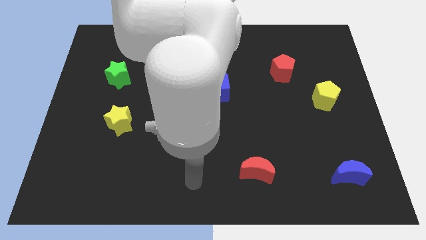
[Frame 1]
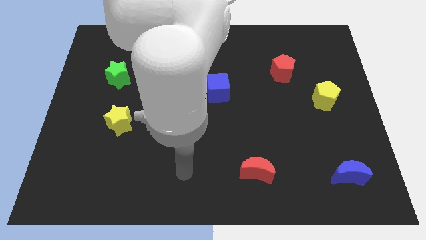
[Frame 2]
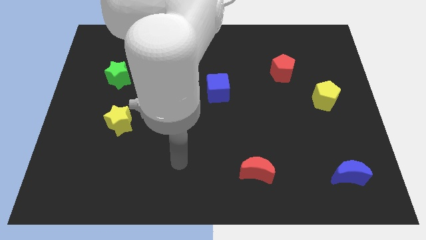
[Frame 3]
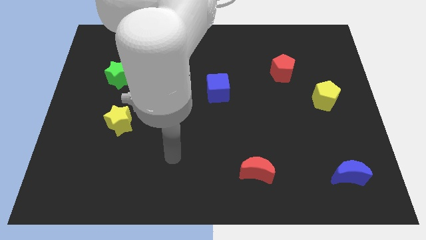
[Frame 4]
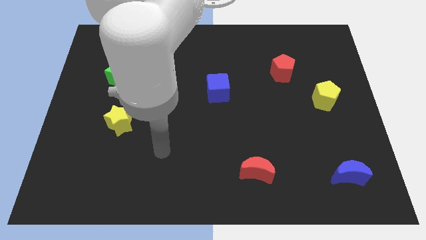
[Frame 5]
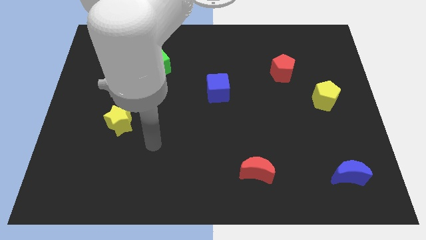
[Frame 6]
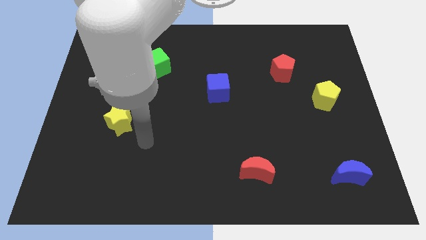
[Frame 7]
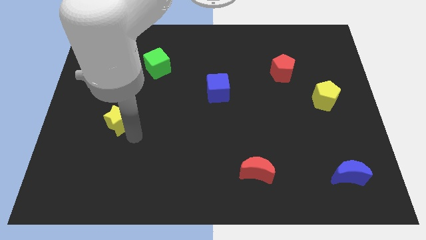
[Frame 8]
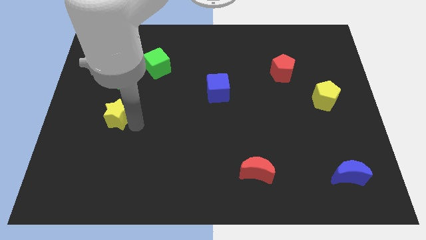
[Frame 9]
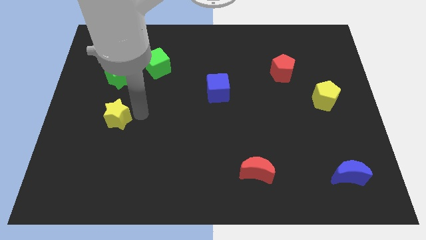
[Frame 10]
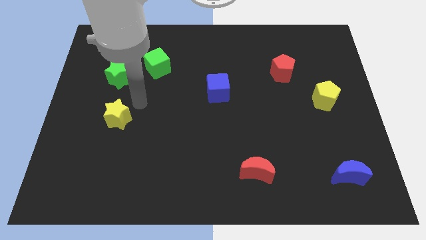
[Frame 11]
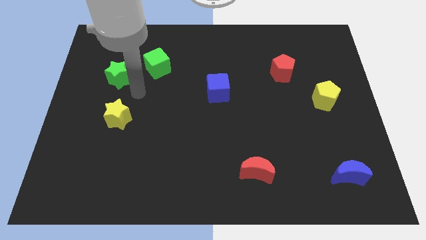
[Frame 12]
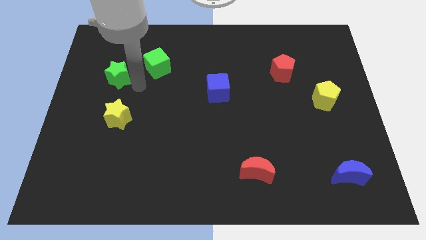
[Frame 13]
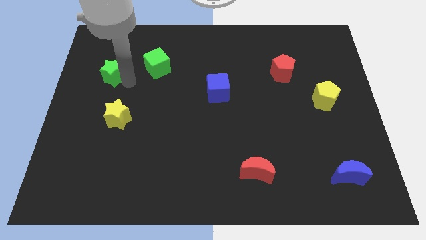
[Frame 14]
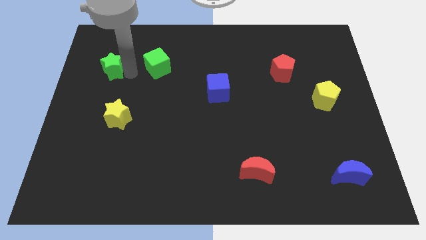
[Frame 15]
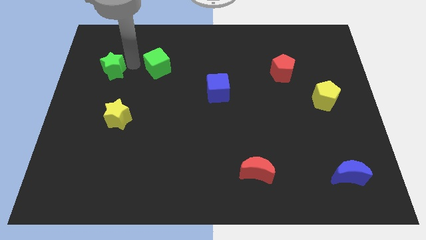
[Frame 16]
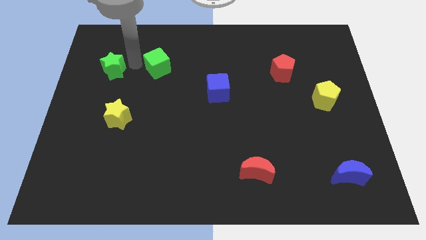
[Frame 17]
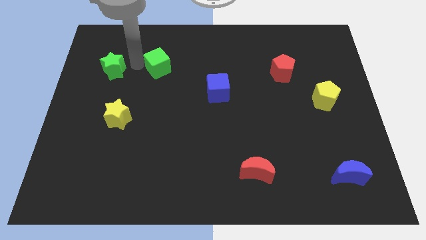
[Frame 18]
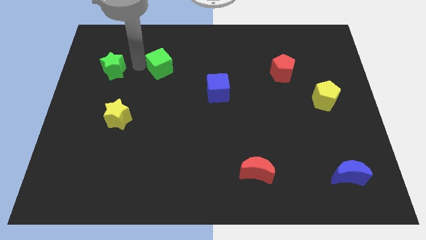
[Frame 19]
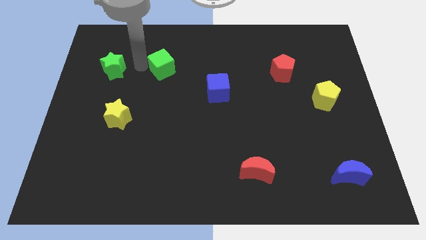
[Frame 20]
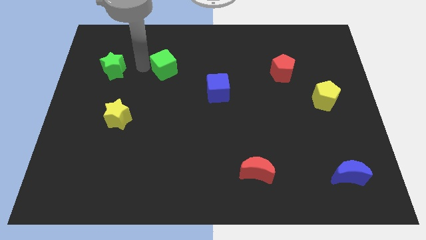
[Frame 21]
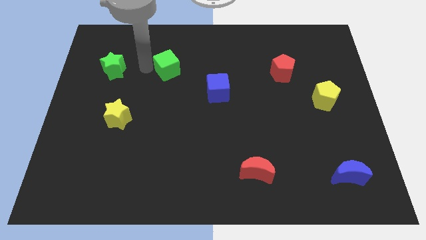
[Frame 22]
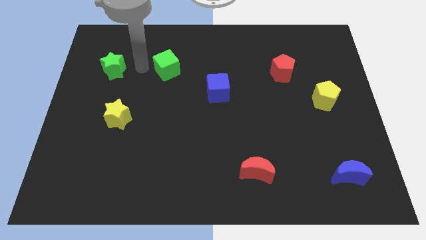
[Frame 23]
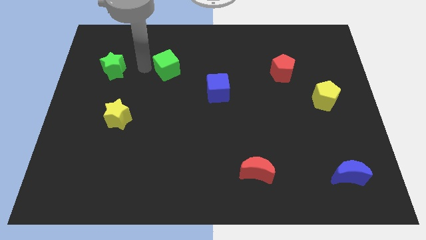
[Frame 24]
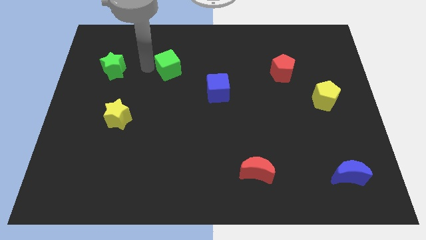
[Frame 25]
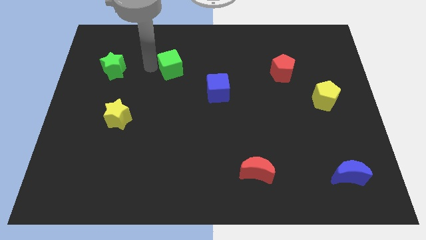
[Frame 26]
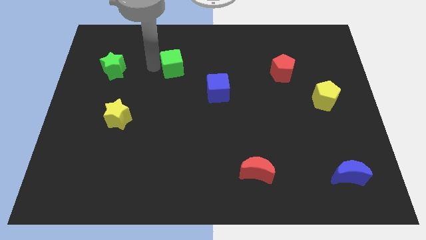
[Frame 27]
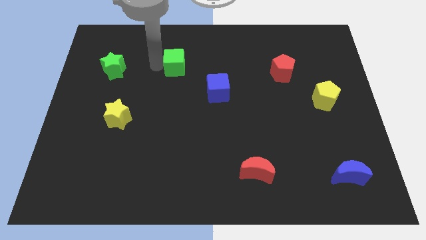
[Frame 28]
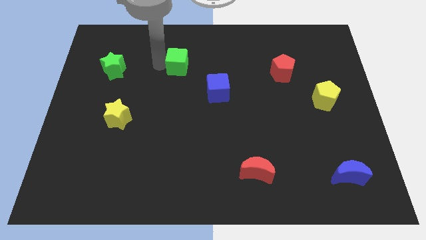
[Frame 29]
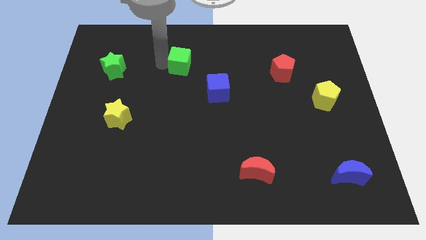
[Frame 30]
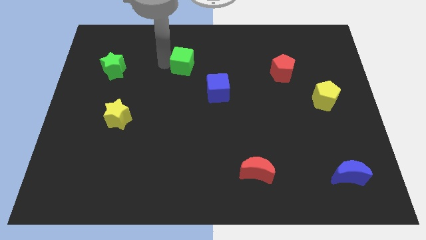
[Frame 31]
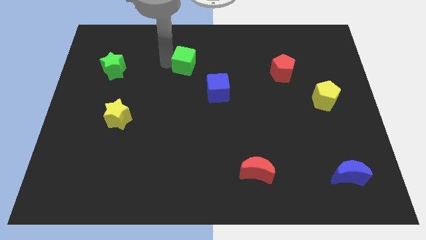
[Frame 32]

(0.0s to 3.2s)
move the green cube a little bit right

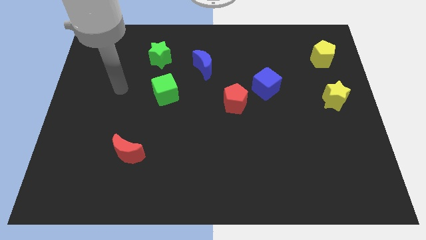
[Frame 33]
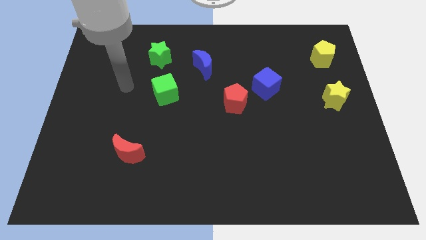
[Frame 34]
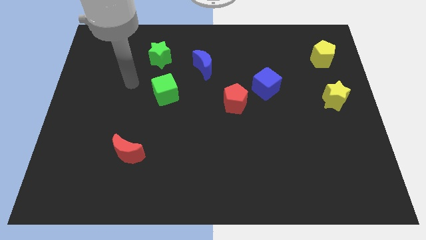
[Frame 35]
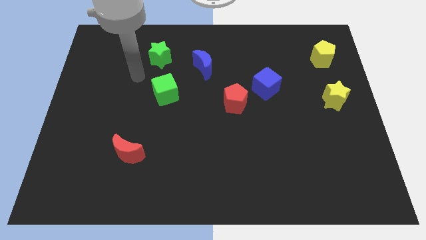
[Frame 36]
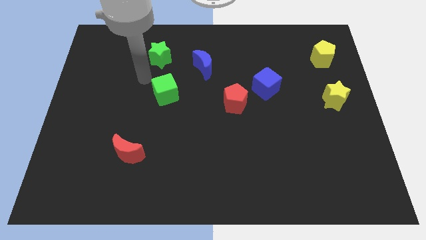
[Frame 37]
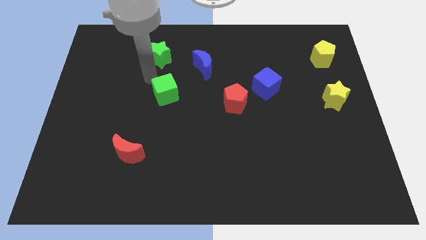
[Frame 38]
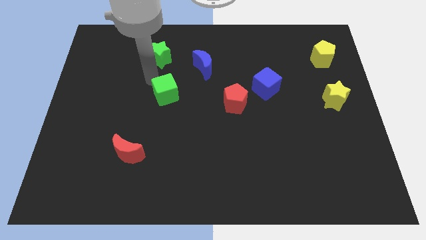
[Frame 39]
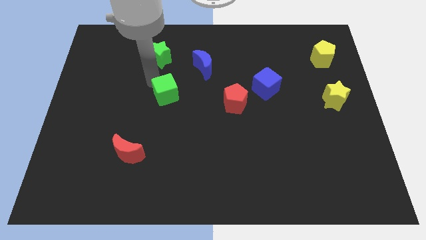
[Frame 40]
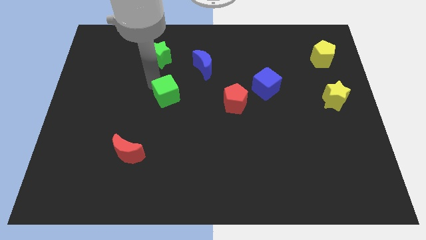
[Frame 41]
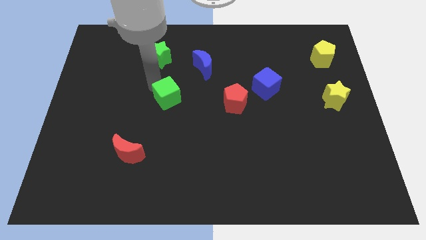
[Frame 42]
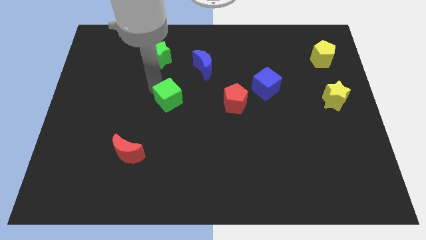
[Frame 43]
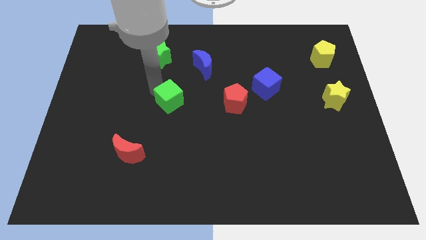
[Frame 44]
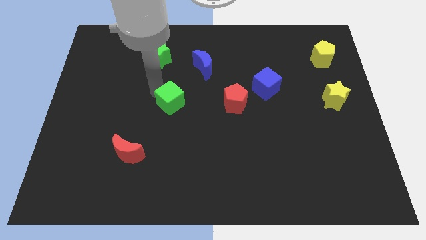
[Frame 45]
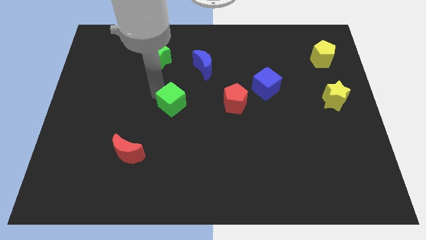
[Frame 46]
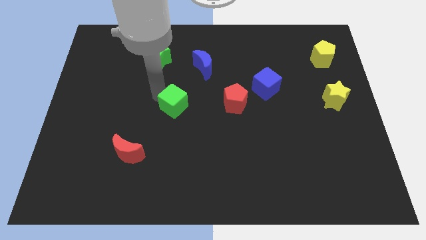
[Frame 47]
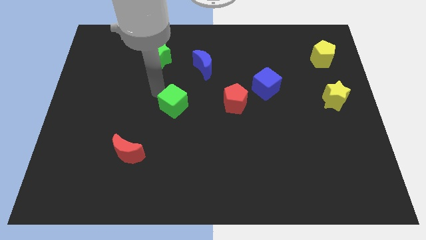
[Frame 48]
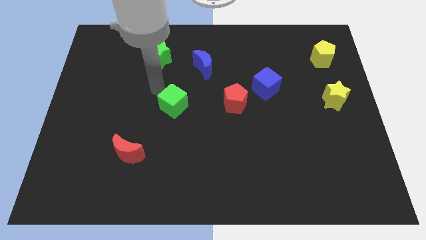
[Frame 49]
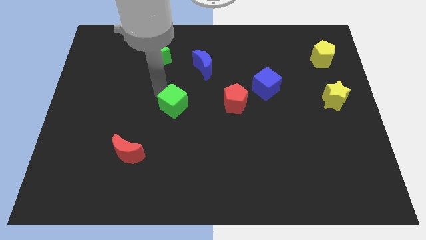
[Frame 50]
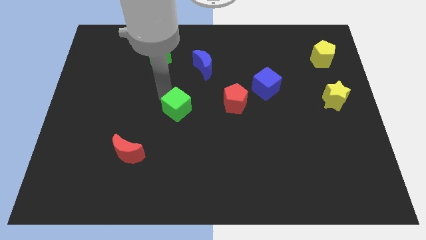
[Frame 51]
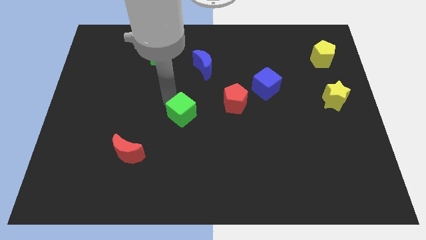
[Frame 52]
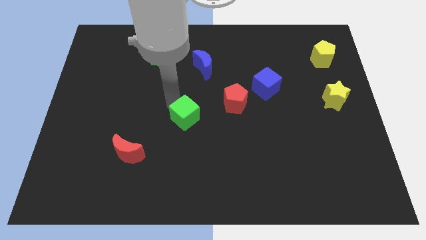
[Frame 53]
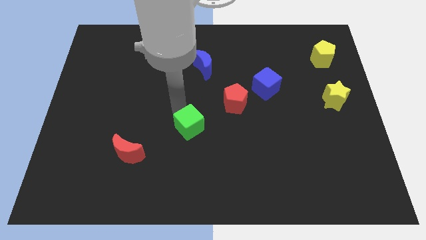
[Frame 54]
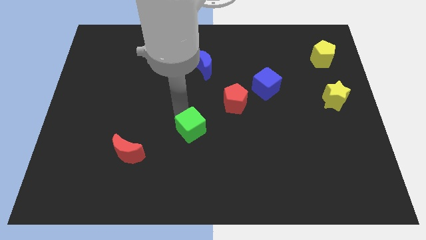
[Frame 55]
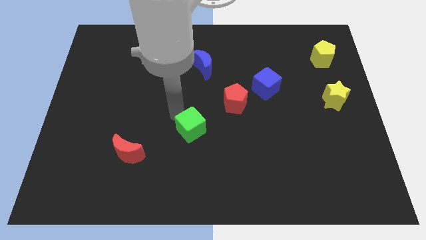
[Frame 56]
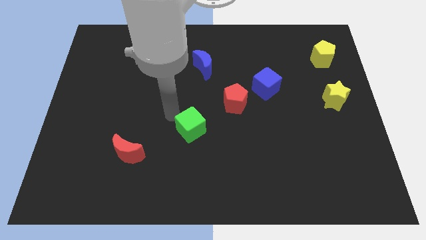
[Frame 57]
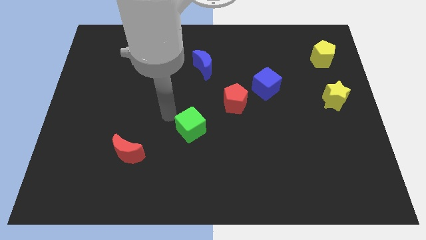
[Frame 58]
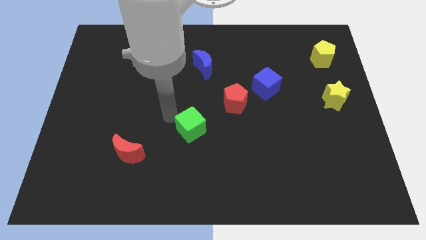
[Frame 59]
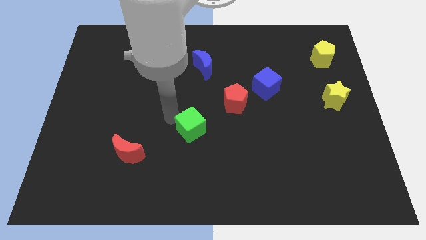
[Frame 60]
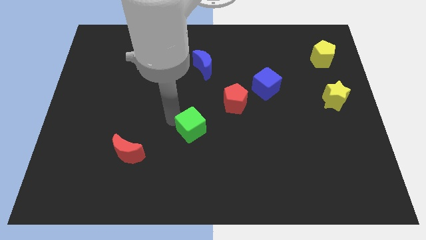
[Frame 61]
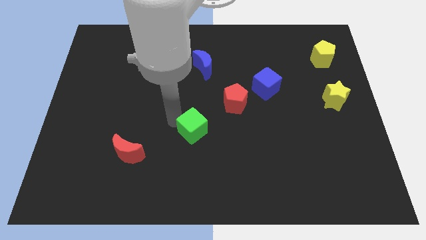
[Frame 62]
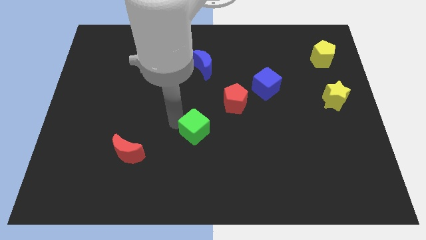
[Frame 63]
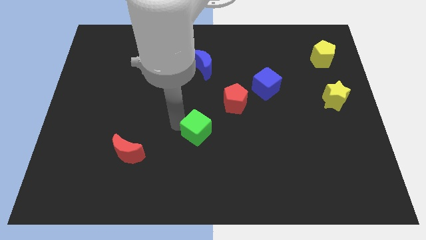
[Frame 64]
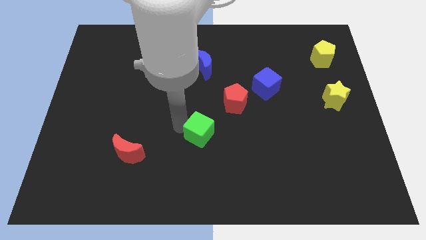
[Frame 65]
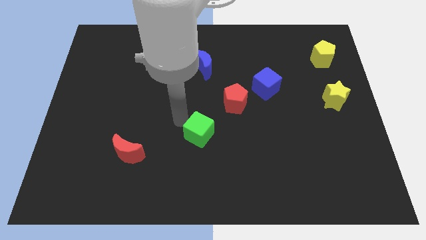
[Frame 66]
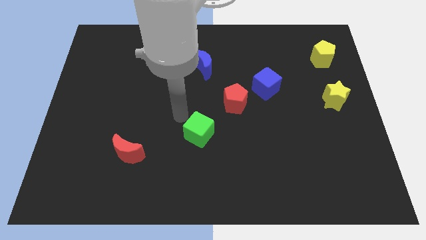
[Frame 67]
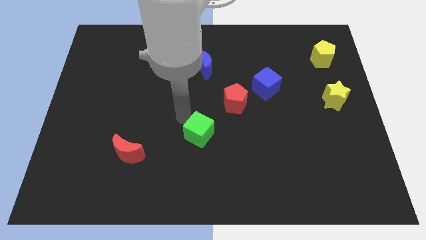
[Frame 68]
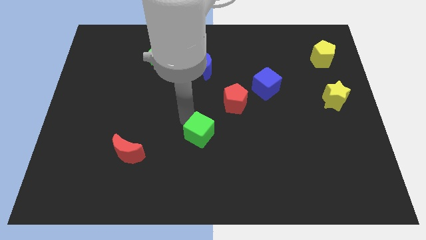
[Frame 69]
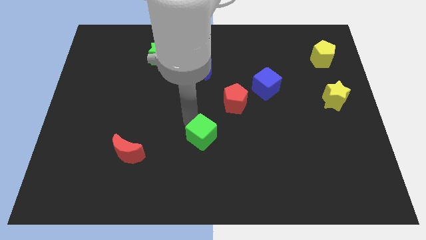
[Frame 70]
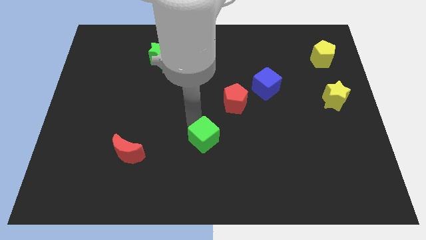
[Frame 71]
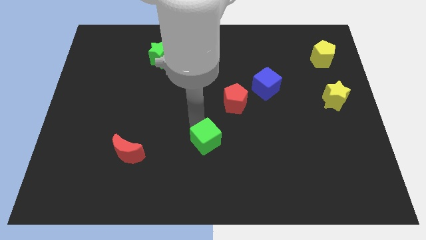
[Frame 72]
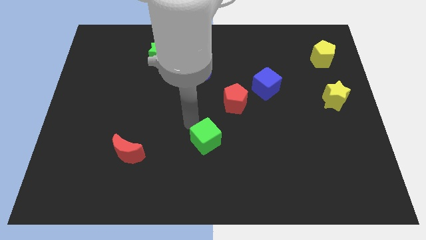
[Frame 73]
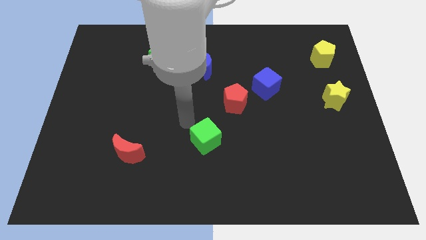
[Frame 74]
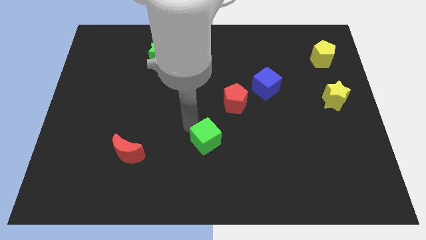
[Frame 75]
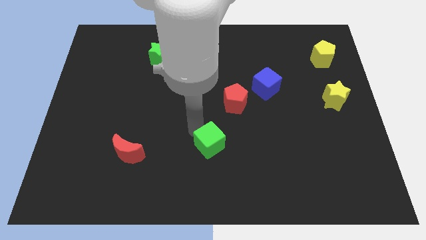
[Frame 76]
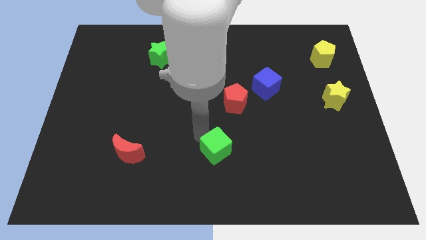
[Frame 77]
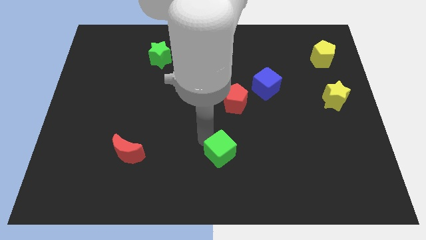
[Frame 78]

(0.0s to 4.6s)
slide the green cube downwards and right diagonally

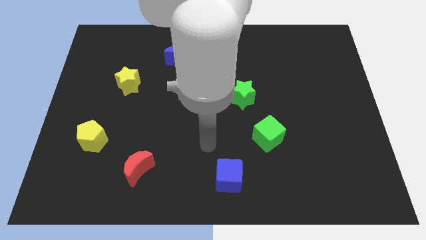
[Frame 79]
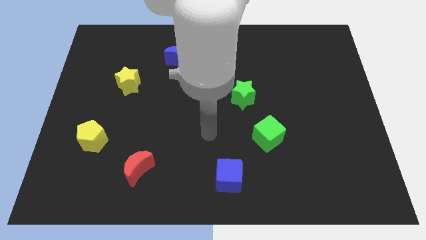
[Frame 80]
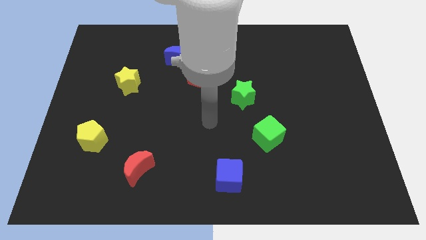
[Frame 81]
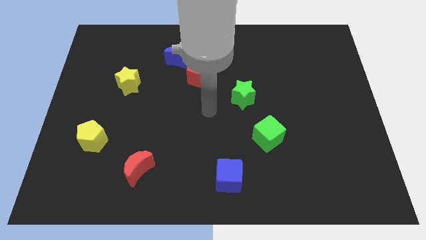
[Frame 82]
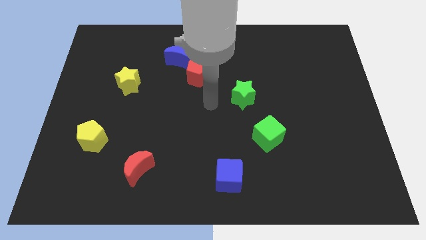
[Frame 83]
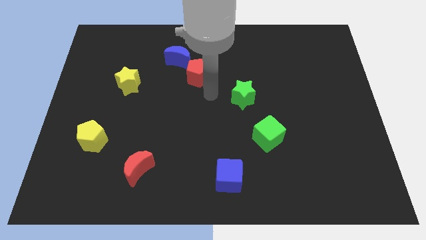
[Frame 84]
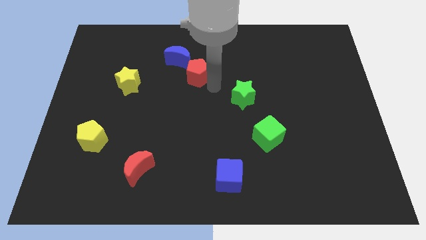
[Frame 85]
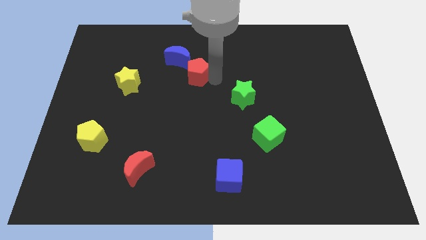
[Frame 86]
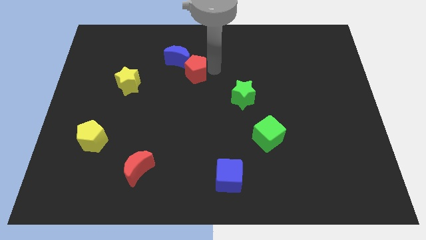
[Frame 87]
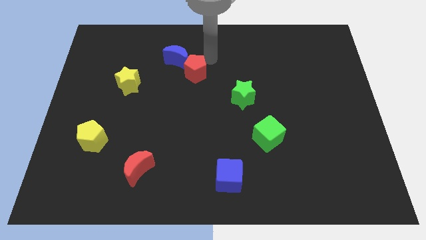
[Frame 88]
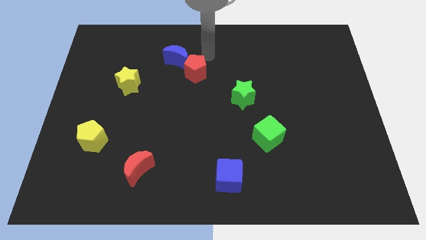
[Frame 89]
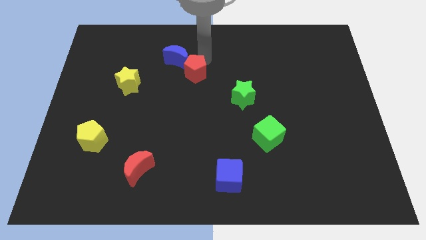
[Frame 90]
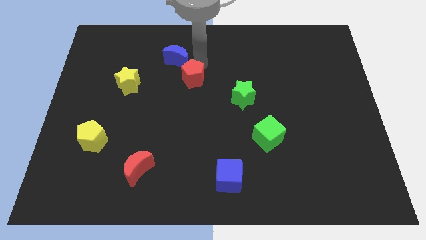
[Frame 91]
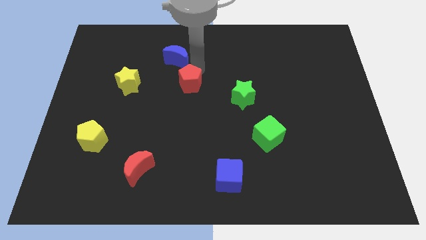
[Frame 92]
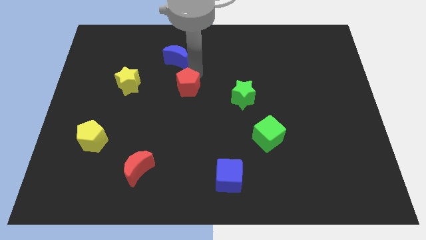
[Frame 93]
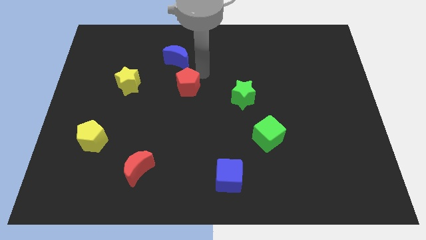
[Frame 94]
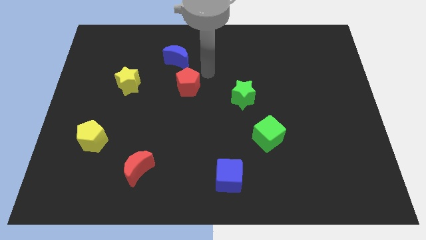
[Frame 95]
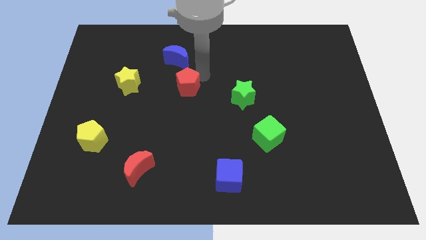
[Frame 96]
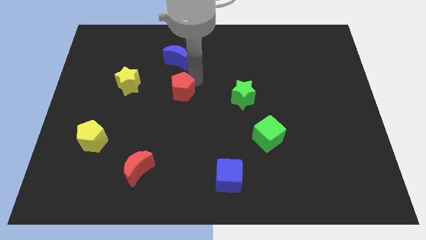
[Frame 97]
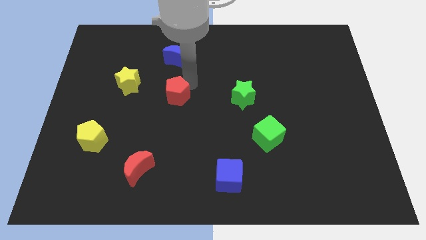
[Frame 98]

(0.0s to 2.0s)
slightly move the red pentagon downwards and left diagonally
